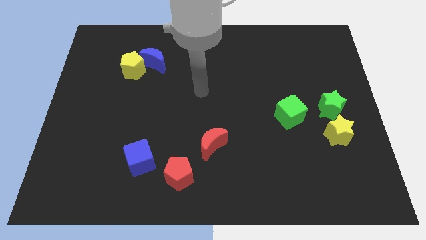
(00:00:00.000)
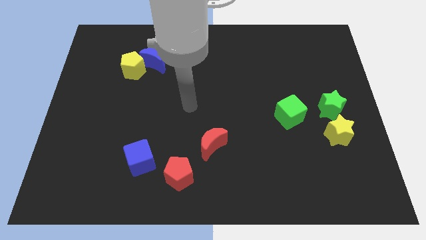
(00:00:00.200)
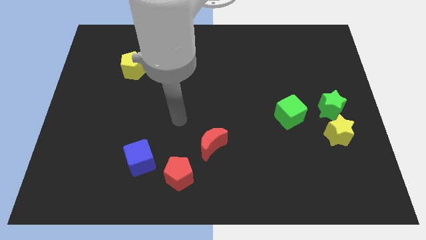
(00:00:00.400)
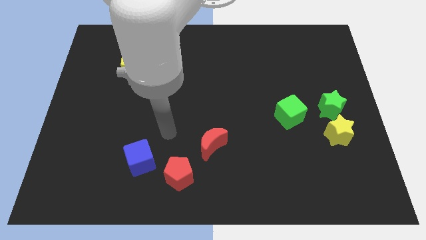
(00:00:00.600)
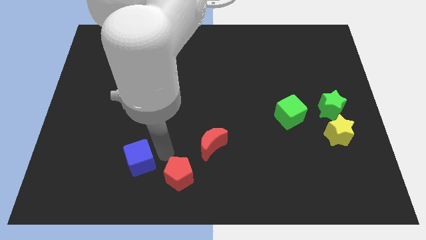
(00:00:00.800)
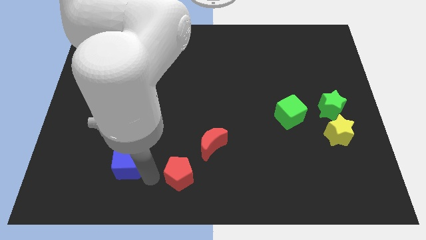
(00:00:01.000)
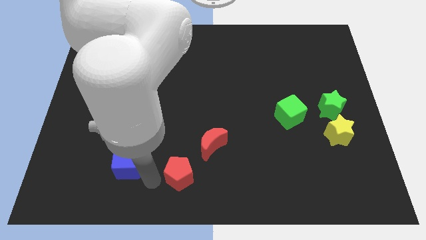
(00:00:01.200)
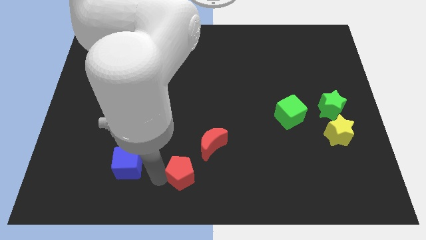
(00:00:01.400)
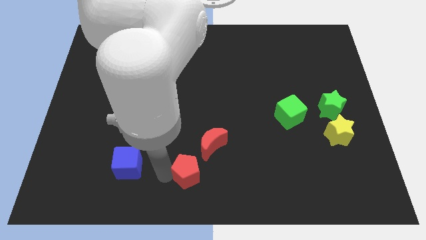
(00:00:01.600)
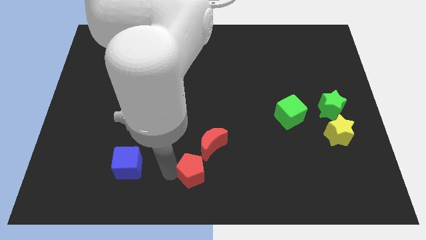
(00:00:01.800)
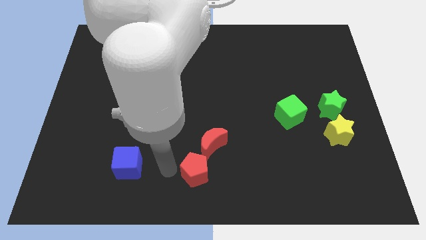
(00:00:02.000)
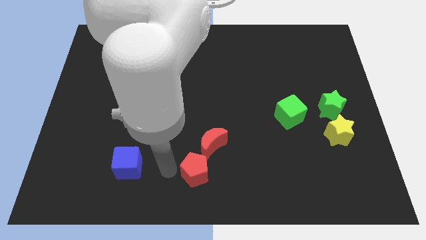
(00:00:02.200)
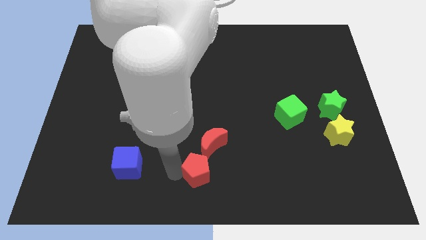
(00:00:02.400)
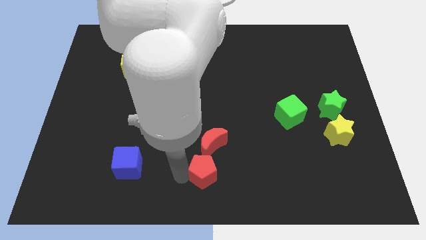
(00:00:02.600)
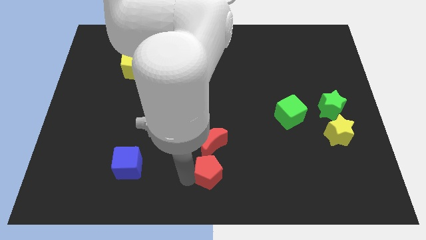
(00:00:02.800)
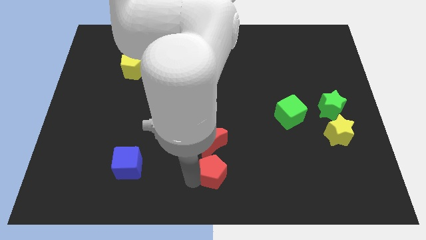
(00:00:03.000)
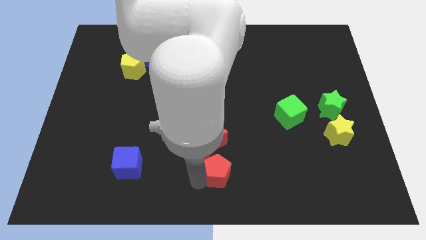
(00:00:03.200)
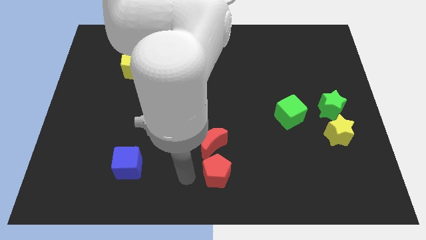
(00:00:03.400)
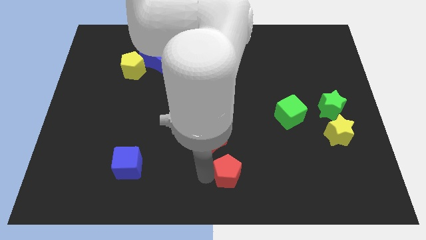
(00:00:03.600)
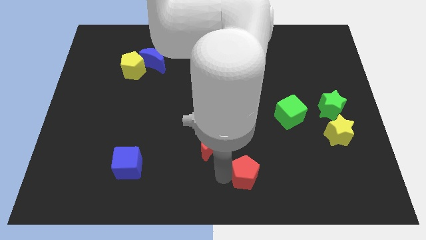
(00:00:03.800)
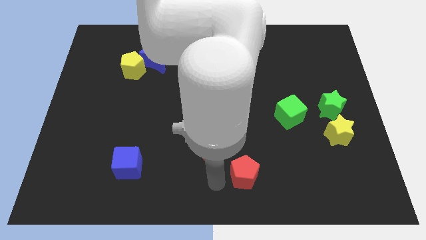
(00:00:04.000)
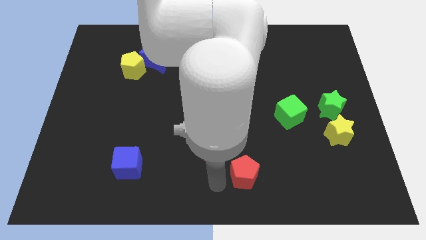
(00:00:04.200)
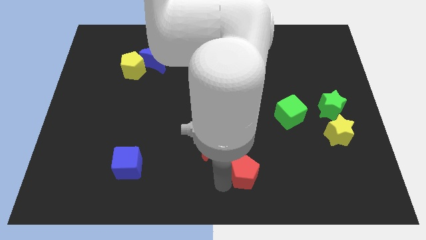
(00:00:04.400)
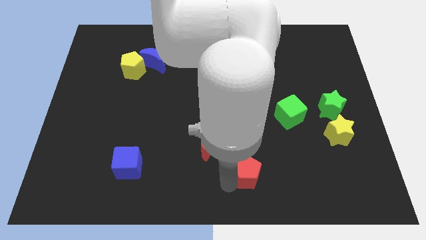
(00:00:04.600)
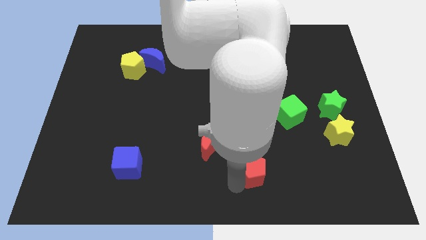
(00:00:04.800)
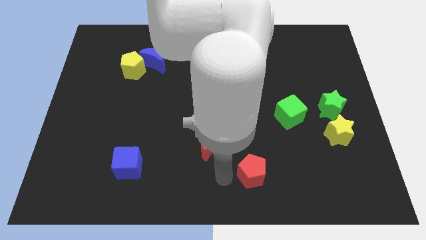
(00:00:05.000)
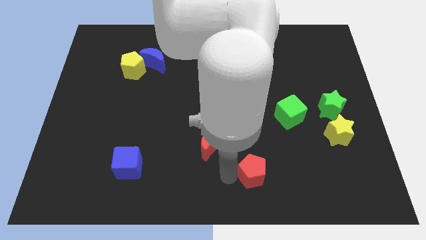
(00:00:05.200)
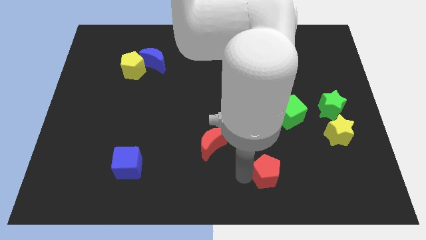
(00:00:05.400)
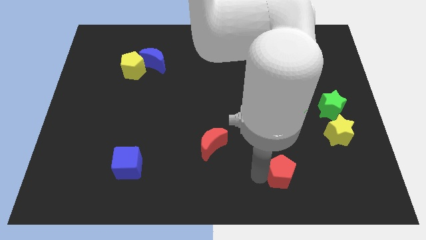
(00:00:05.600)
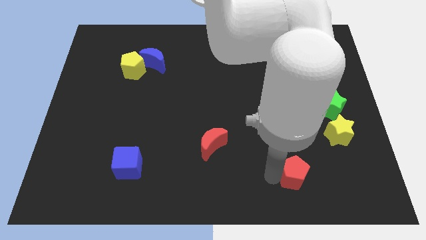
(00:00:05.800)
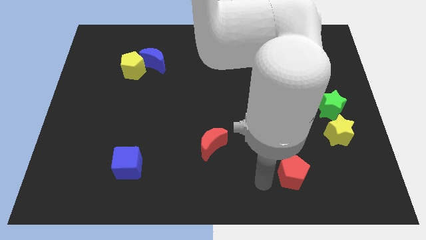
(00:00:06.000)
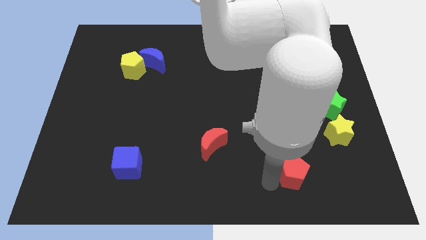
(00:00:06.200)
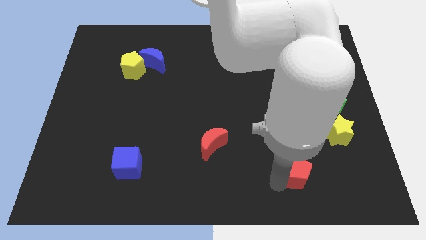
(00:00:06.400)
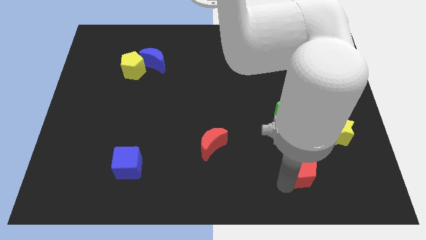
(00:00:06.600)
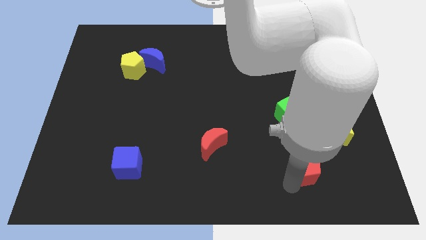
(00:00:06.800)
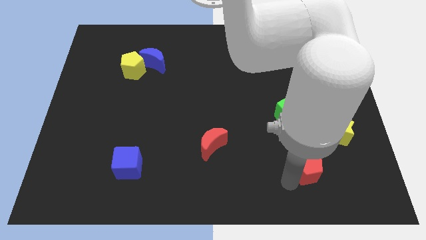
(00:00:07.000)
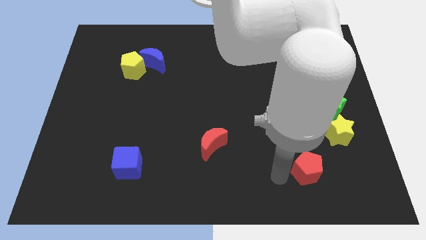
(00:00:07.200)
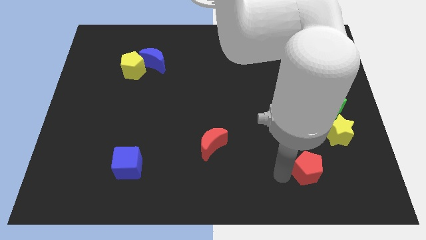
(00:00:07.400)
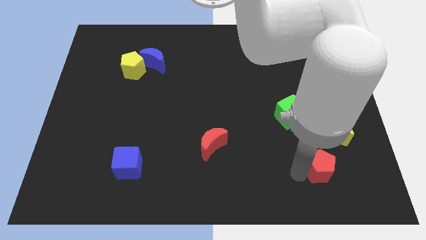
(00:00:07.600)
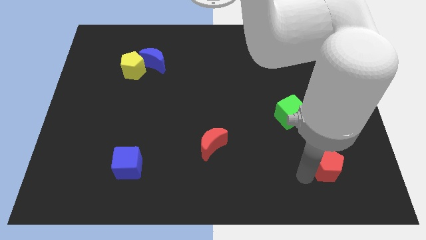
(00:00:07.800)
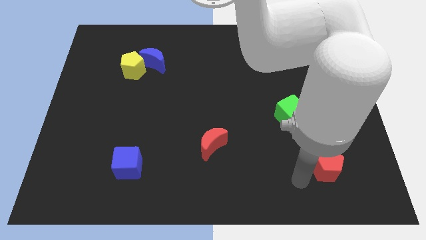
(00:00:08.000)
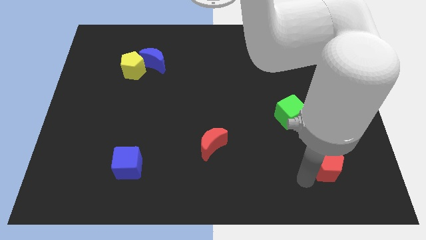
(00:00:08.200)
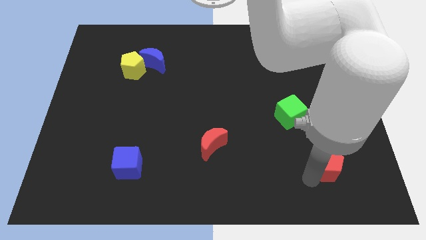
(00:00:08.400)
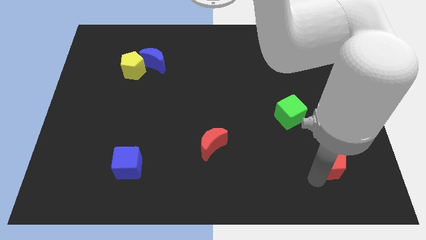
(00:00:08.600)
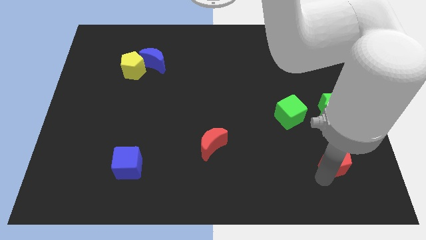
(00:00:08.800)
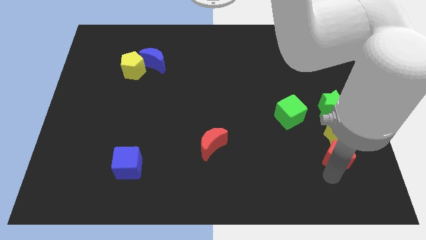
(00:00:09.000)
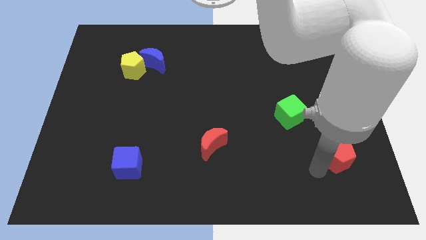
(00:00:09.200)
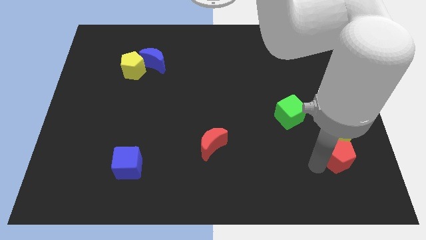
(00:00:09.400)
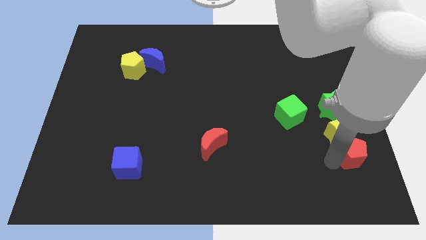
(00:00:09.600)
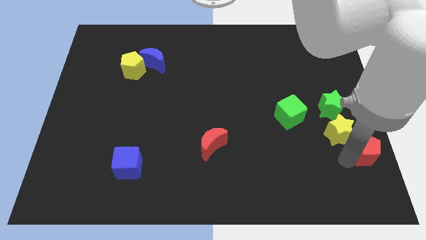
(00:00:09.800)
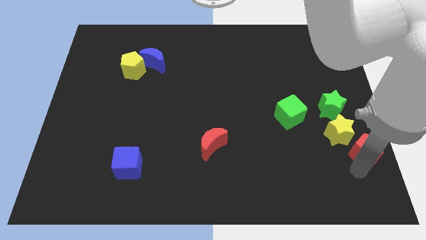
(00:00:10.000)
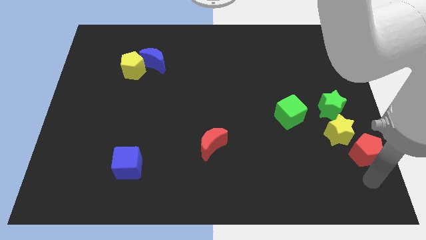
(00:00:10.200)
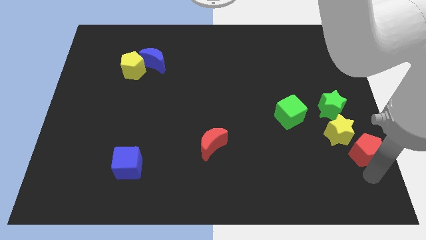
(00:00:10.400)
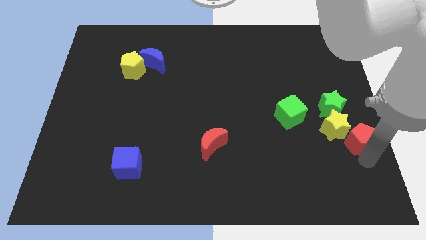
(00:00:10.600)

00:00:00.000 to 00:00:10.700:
put the red pentagon to the right side

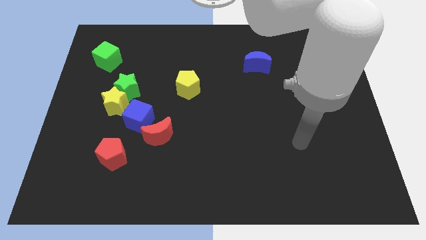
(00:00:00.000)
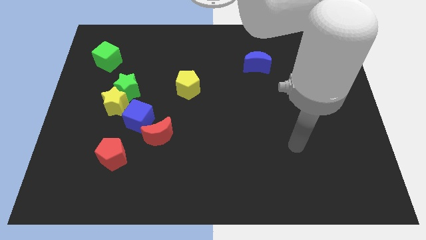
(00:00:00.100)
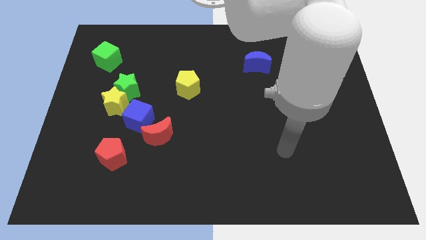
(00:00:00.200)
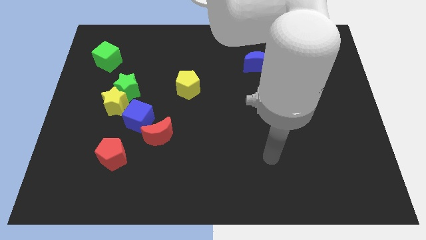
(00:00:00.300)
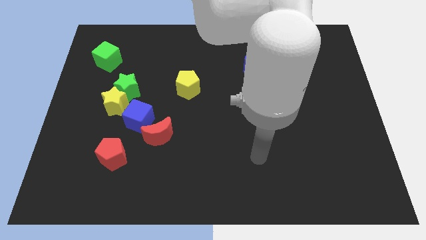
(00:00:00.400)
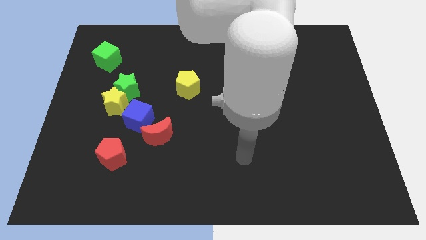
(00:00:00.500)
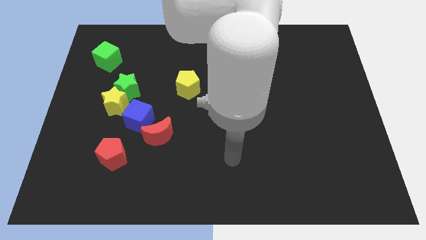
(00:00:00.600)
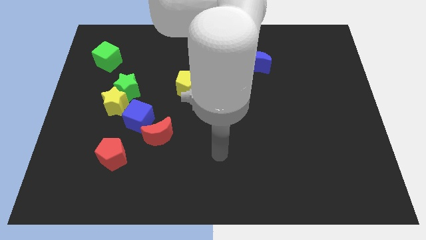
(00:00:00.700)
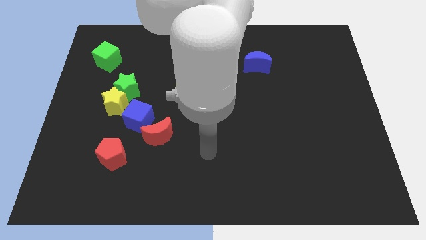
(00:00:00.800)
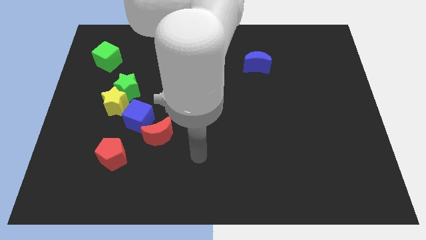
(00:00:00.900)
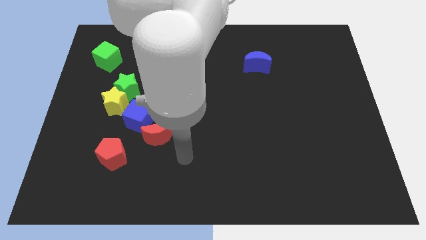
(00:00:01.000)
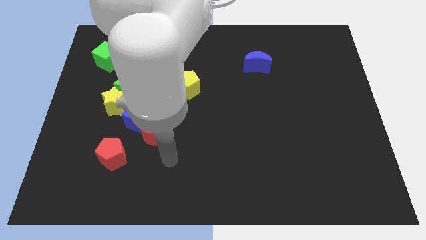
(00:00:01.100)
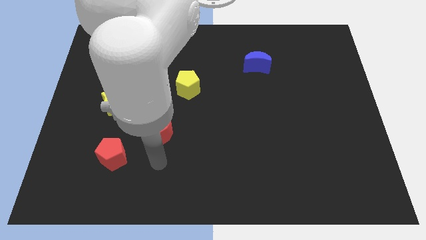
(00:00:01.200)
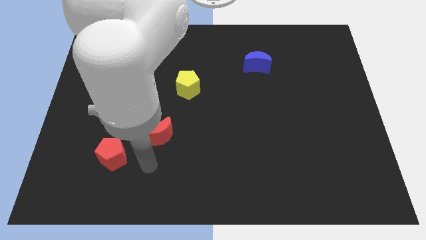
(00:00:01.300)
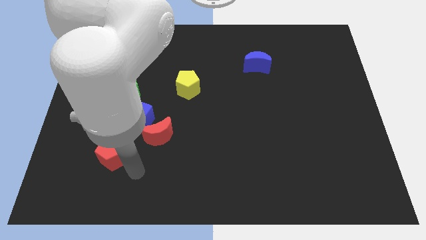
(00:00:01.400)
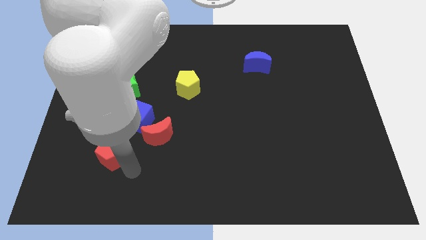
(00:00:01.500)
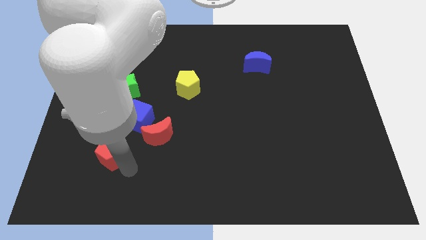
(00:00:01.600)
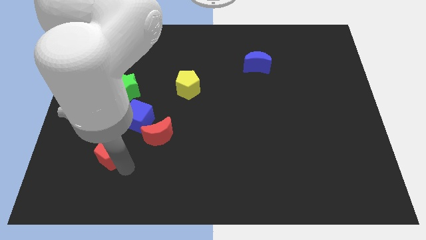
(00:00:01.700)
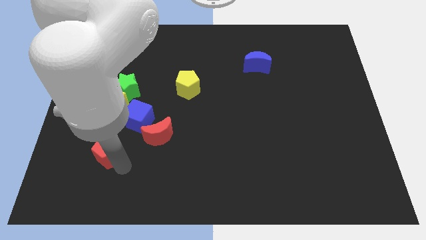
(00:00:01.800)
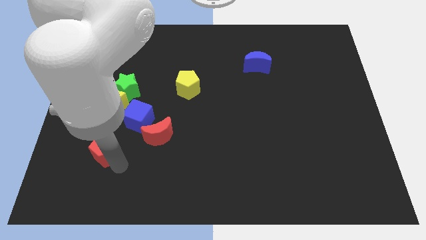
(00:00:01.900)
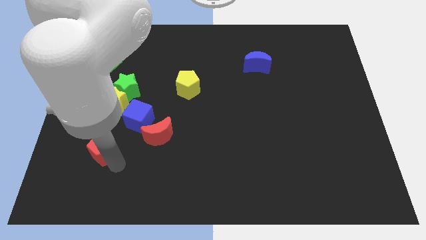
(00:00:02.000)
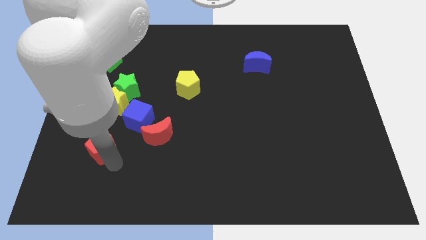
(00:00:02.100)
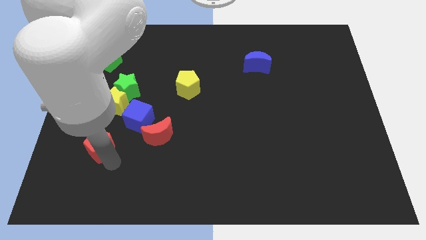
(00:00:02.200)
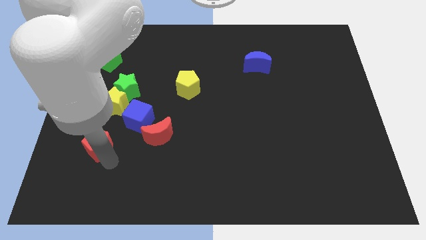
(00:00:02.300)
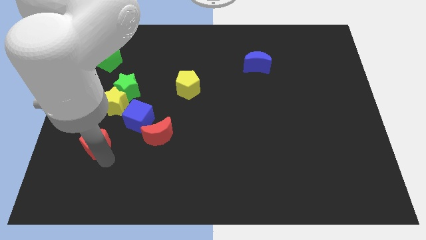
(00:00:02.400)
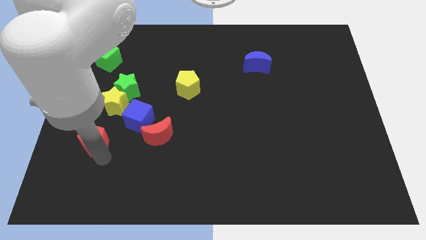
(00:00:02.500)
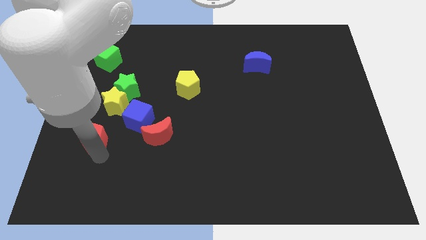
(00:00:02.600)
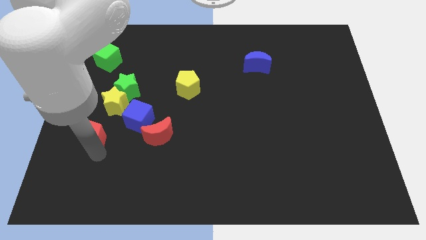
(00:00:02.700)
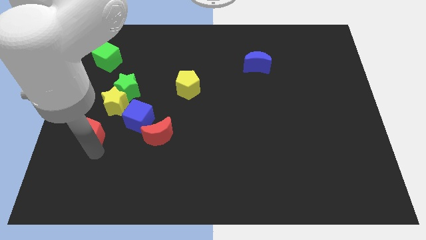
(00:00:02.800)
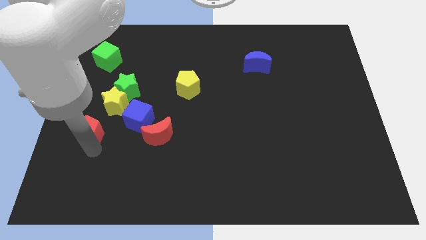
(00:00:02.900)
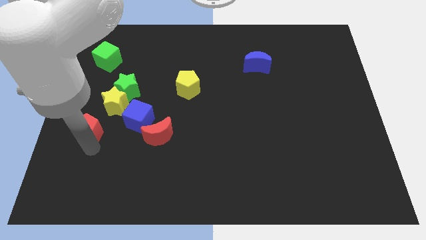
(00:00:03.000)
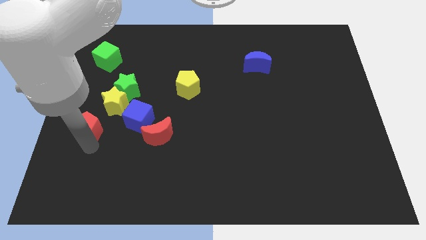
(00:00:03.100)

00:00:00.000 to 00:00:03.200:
slide the red pentagon to the left side
